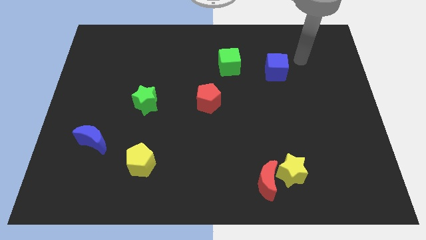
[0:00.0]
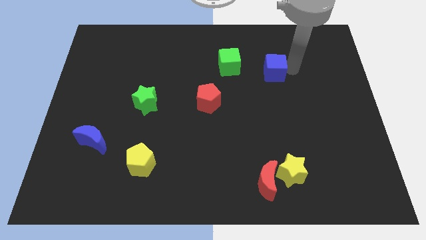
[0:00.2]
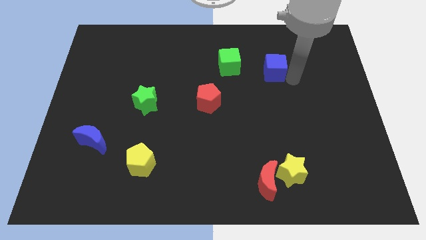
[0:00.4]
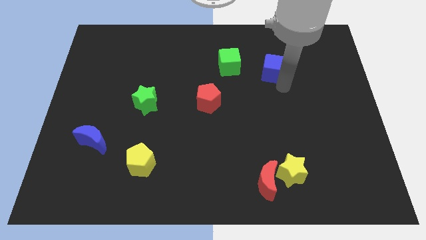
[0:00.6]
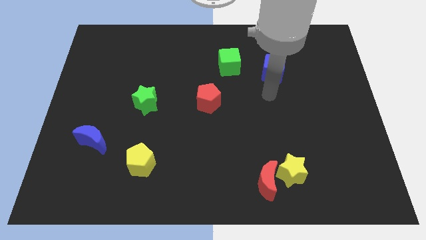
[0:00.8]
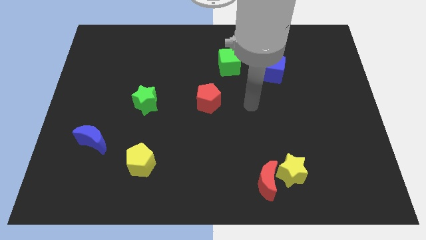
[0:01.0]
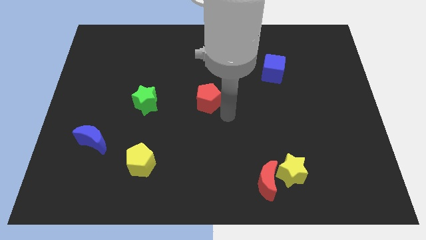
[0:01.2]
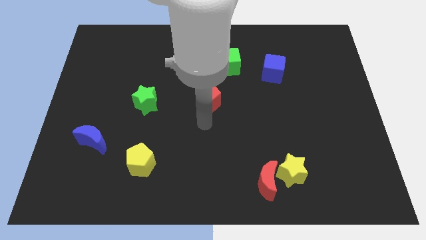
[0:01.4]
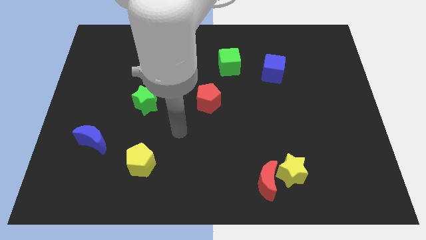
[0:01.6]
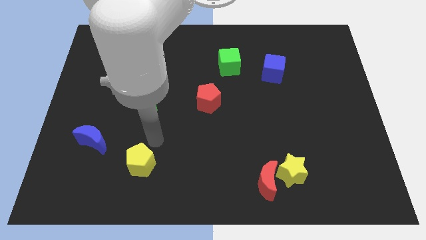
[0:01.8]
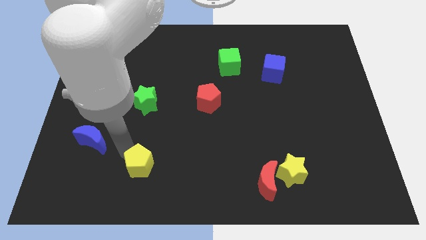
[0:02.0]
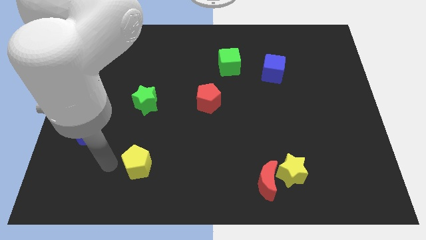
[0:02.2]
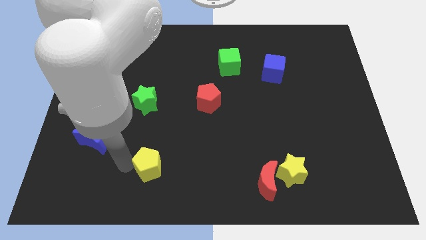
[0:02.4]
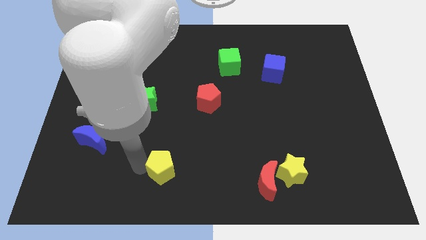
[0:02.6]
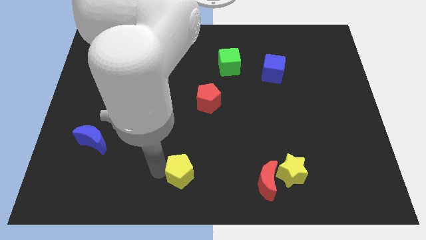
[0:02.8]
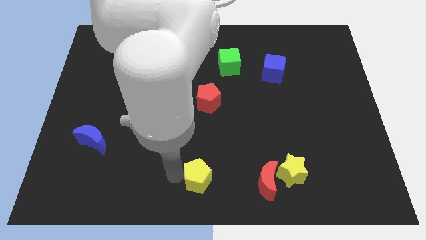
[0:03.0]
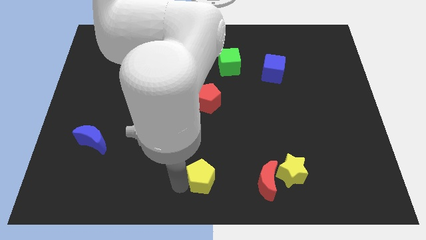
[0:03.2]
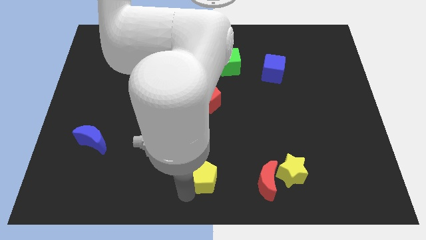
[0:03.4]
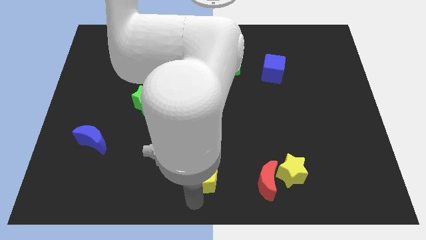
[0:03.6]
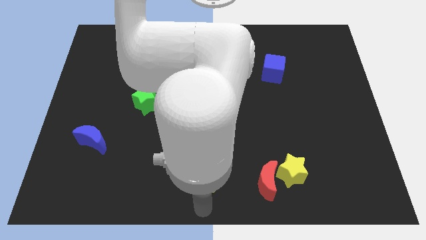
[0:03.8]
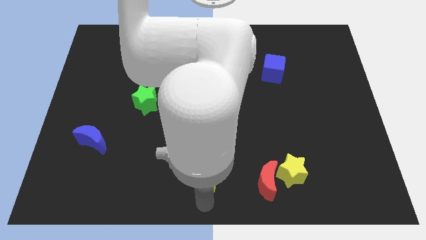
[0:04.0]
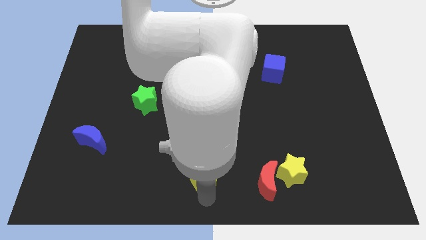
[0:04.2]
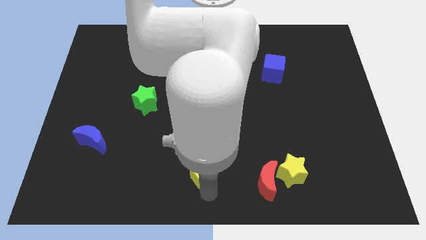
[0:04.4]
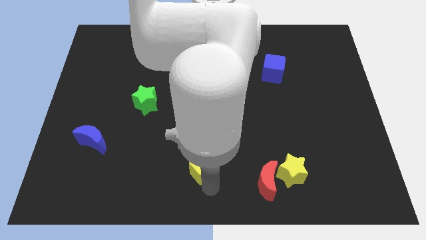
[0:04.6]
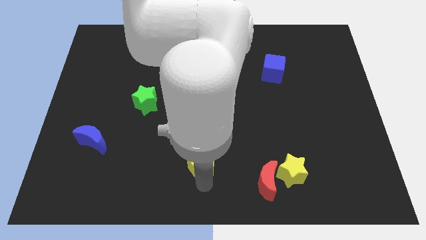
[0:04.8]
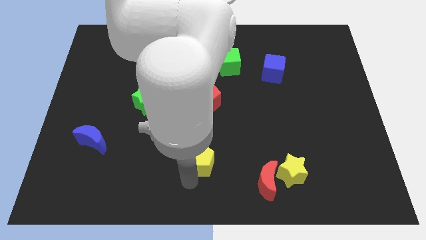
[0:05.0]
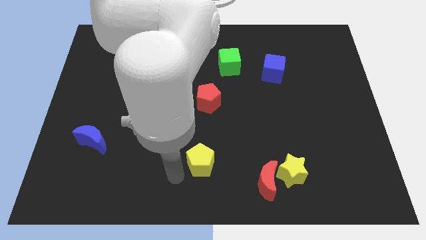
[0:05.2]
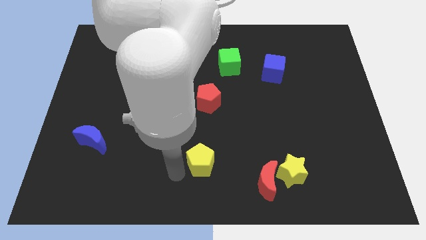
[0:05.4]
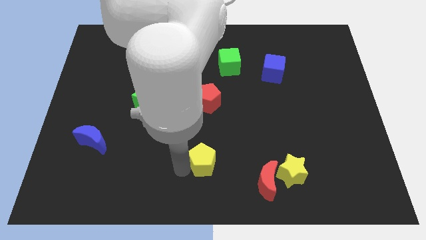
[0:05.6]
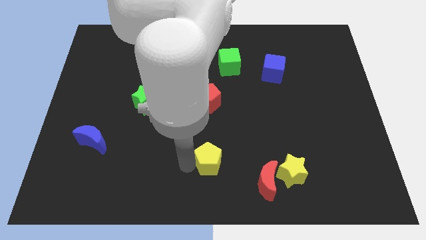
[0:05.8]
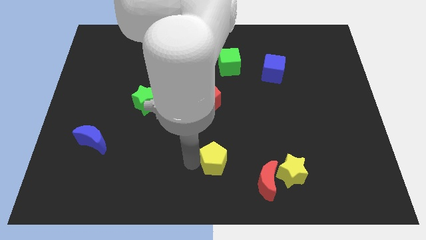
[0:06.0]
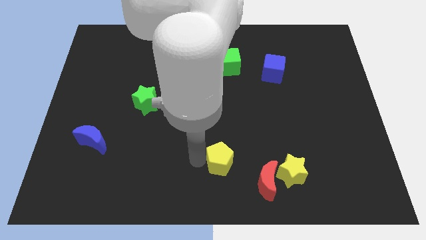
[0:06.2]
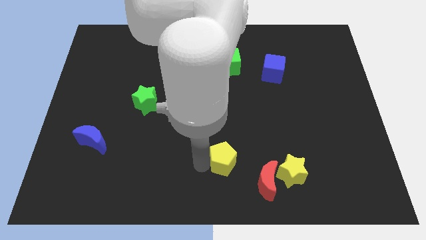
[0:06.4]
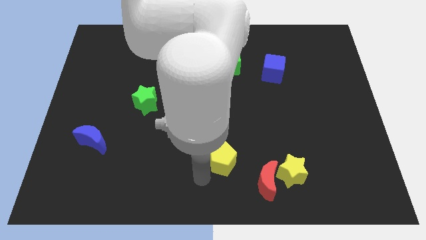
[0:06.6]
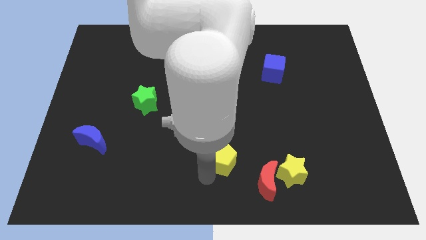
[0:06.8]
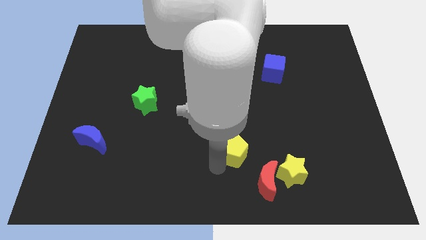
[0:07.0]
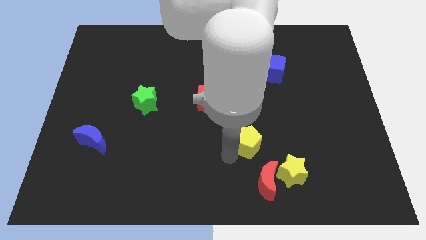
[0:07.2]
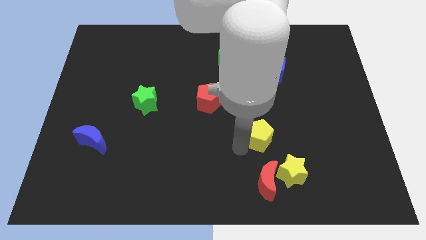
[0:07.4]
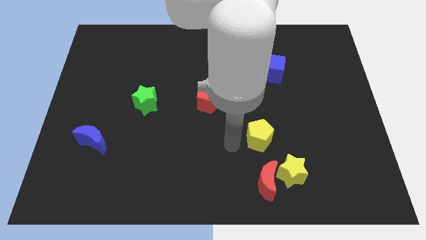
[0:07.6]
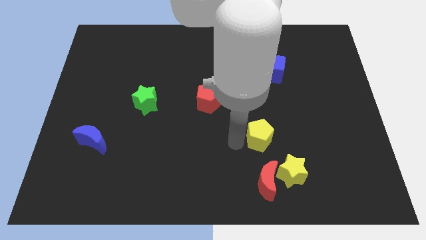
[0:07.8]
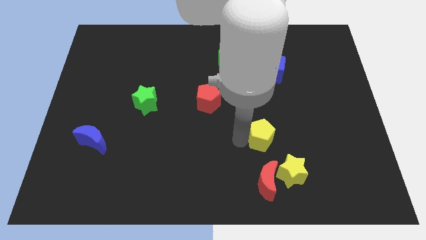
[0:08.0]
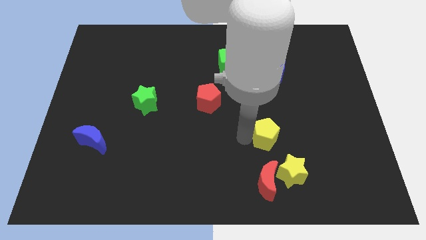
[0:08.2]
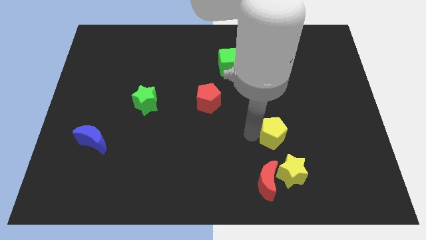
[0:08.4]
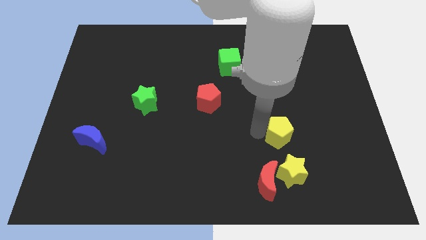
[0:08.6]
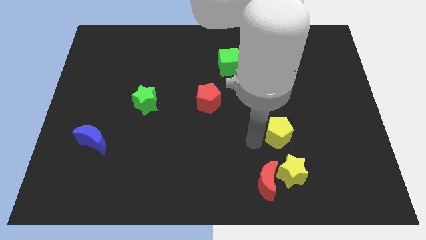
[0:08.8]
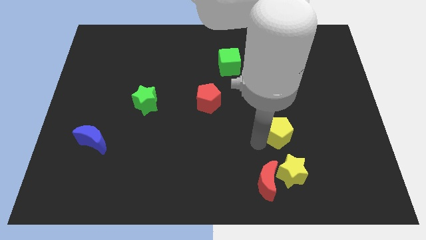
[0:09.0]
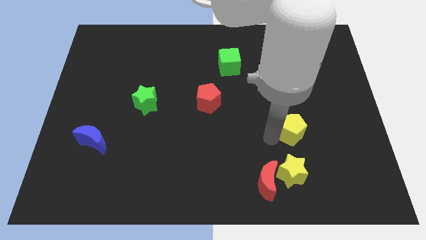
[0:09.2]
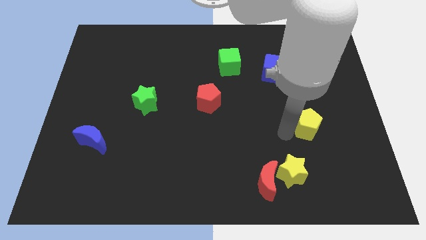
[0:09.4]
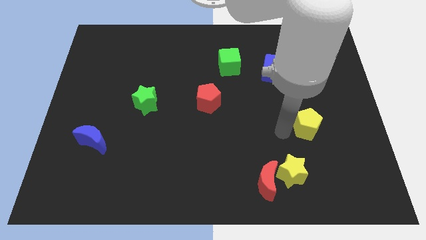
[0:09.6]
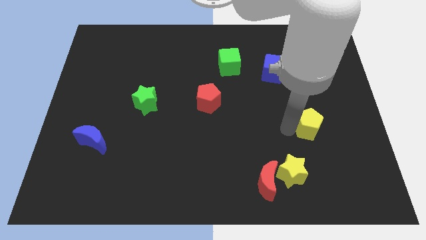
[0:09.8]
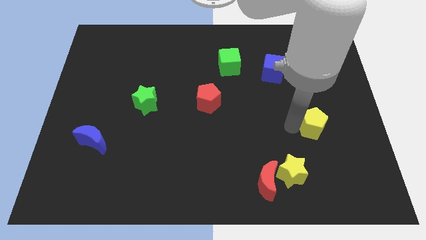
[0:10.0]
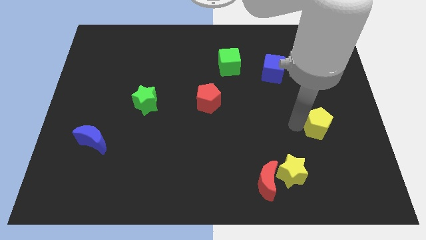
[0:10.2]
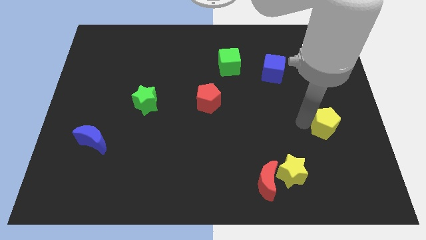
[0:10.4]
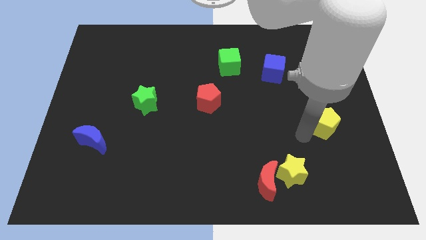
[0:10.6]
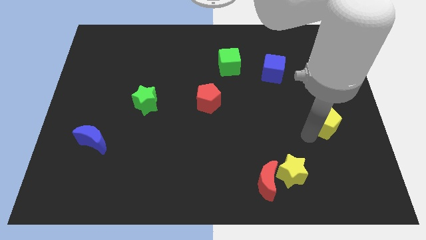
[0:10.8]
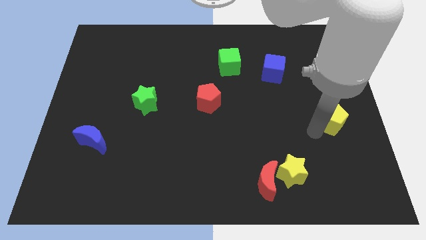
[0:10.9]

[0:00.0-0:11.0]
slide the yellow pentagon to the right side

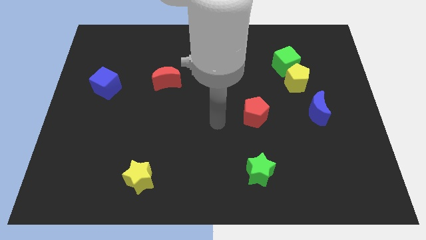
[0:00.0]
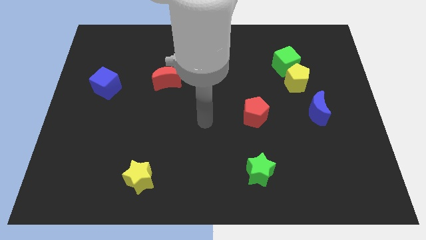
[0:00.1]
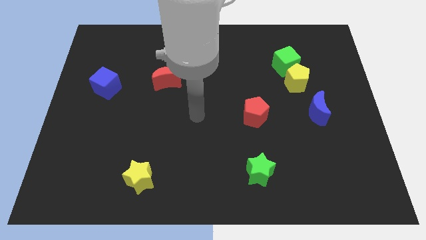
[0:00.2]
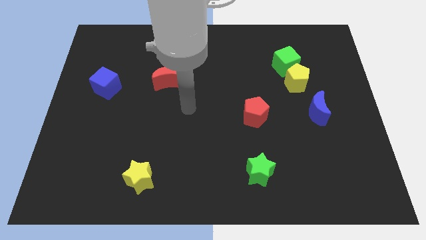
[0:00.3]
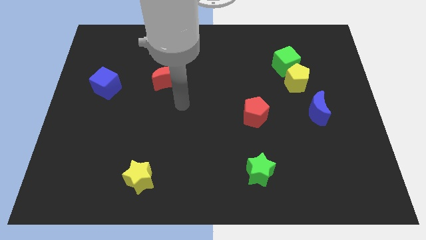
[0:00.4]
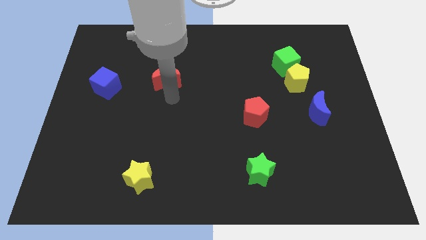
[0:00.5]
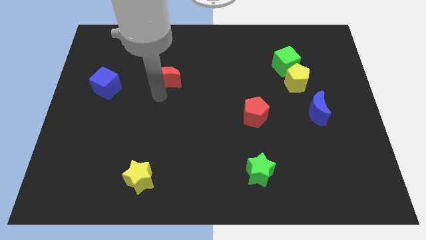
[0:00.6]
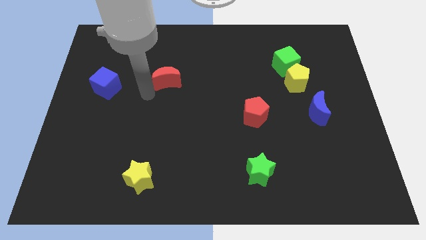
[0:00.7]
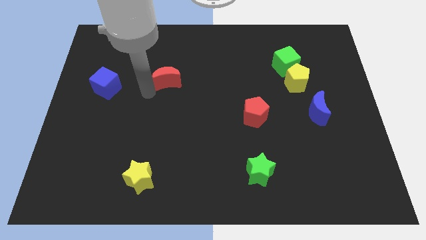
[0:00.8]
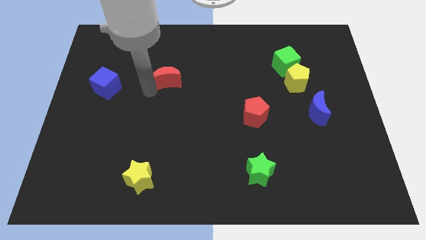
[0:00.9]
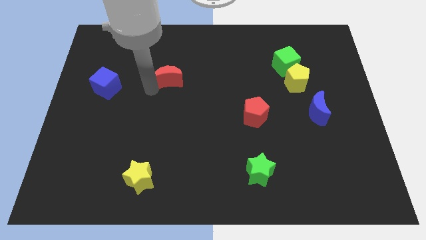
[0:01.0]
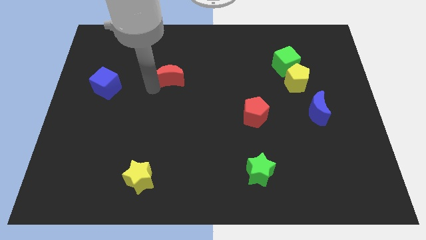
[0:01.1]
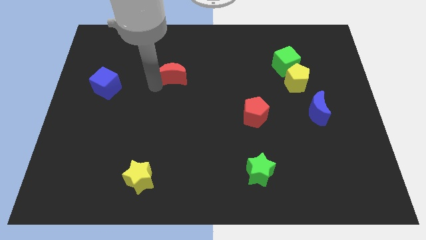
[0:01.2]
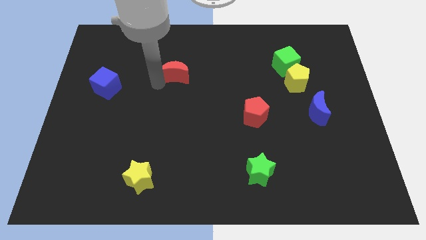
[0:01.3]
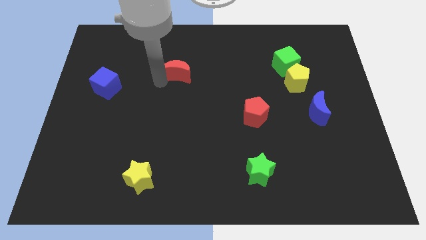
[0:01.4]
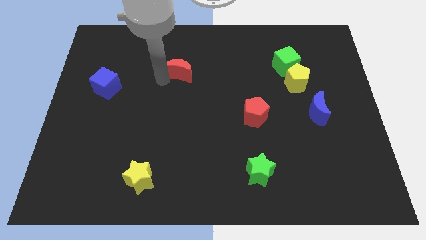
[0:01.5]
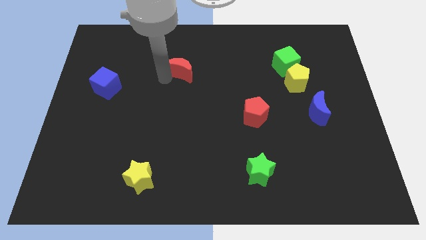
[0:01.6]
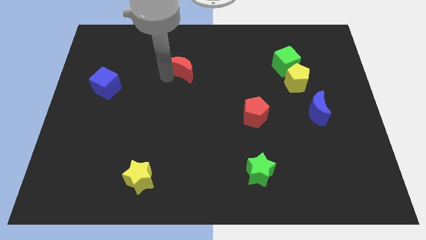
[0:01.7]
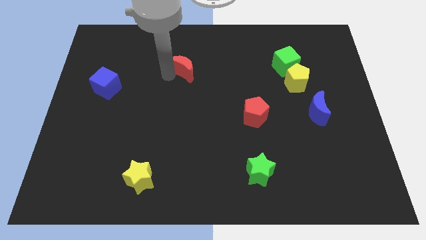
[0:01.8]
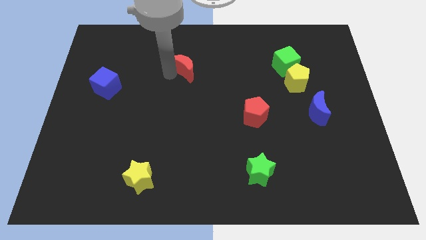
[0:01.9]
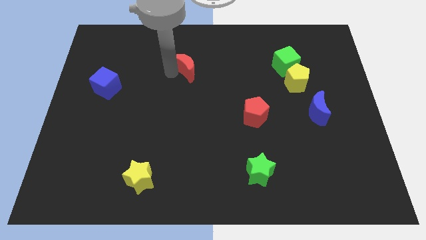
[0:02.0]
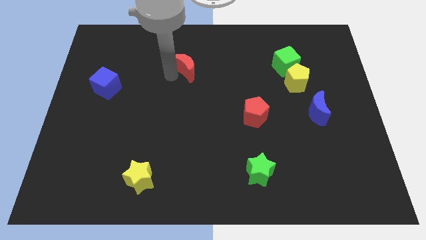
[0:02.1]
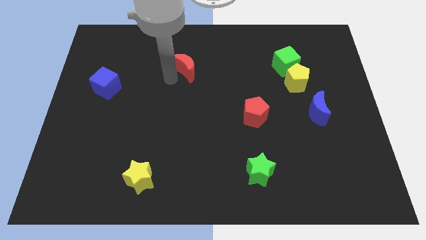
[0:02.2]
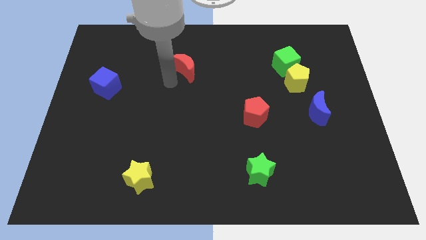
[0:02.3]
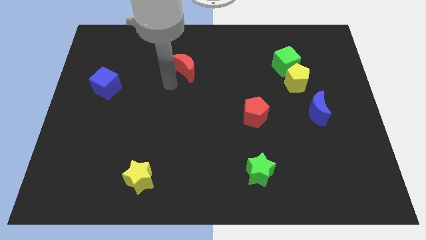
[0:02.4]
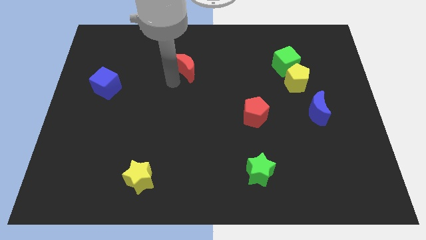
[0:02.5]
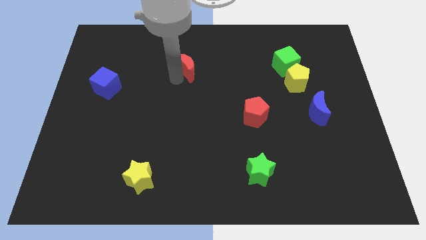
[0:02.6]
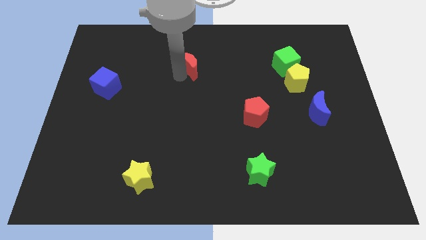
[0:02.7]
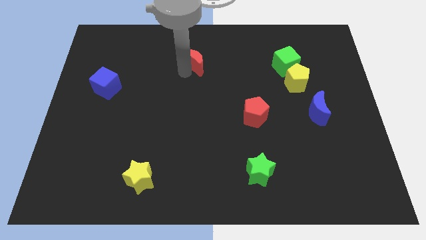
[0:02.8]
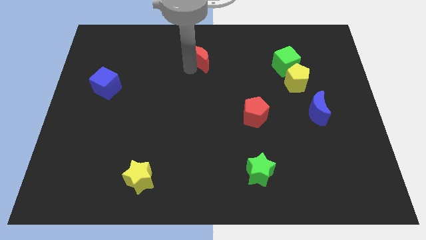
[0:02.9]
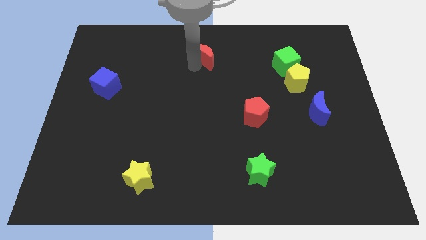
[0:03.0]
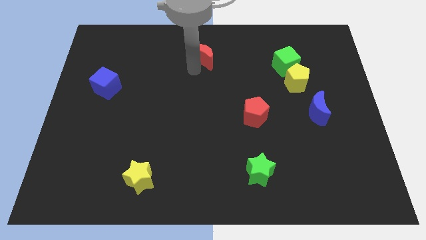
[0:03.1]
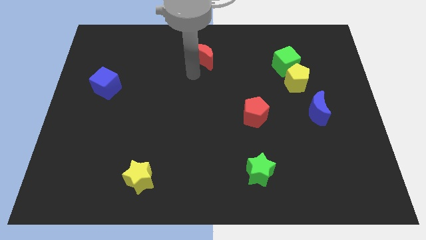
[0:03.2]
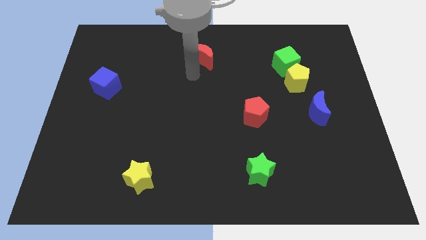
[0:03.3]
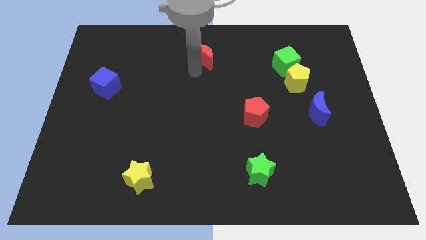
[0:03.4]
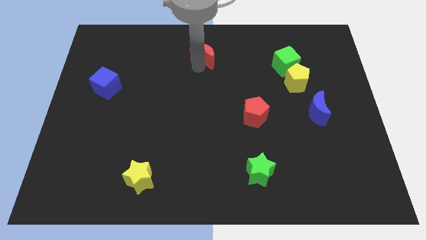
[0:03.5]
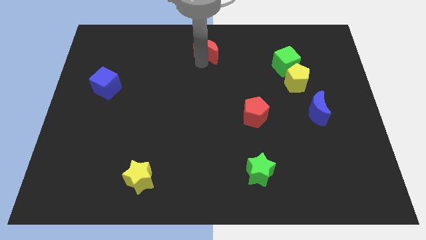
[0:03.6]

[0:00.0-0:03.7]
put the red moon to the top side
